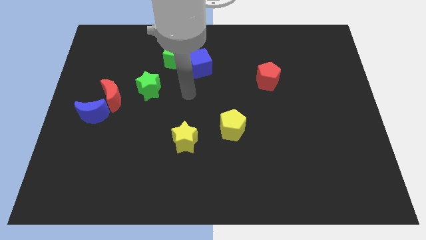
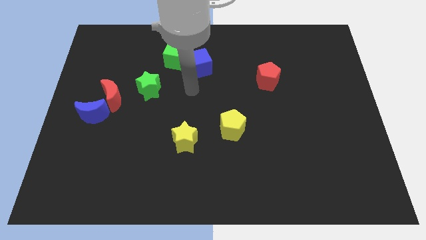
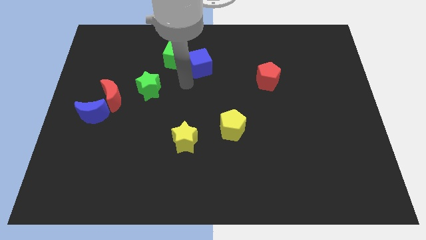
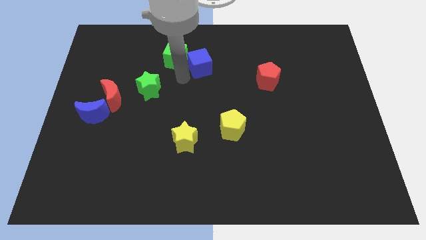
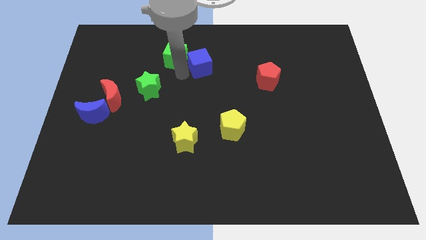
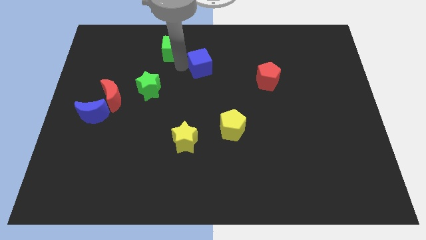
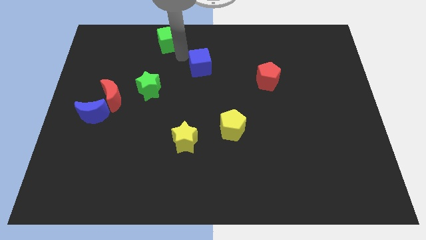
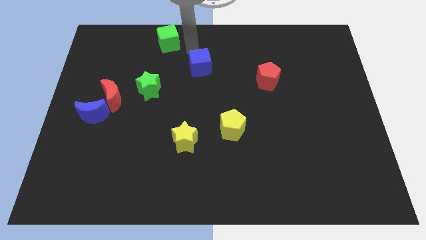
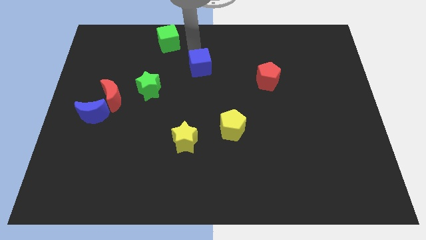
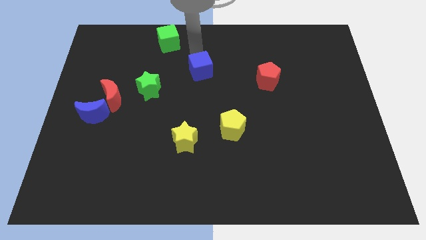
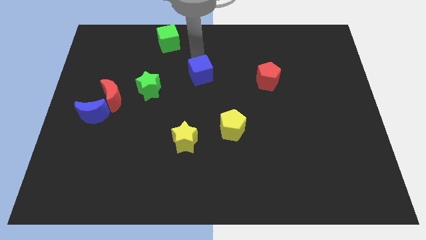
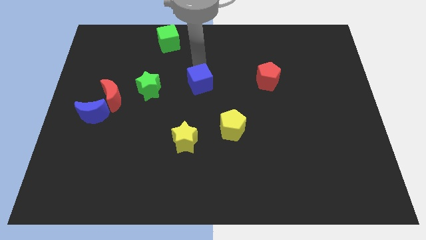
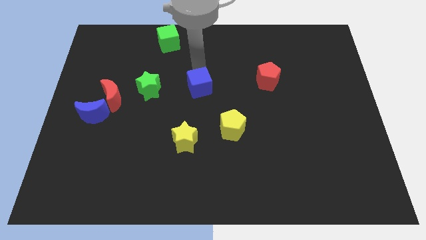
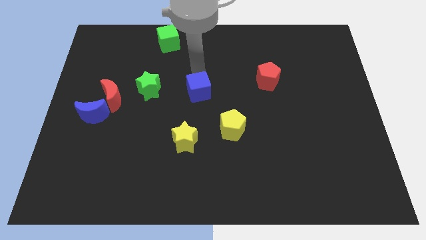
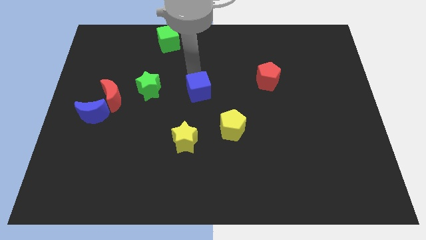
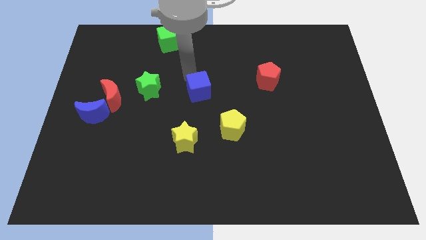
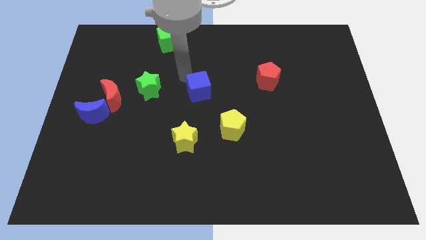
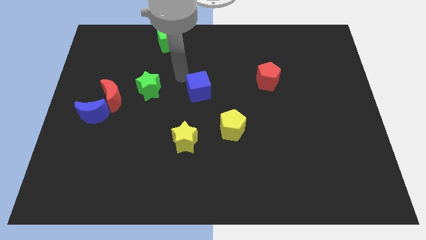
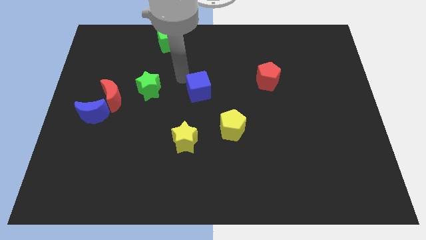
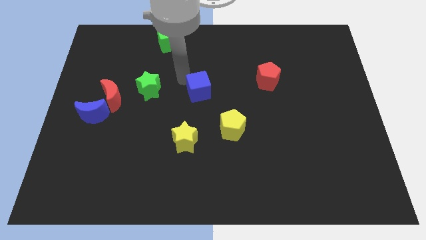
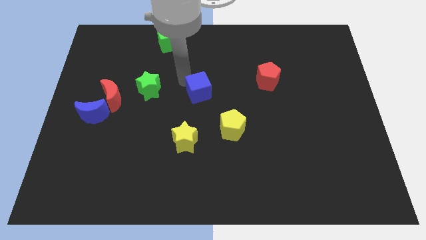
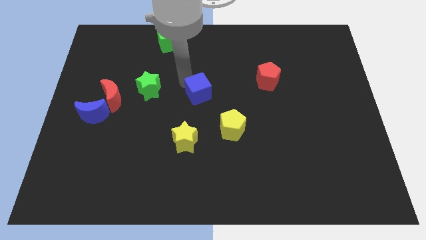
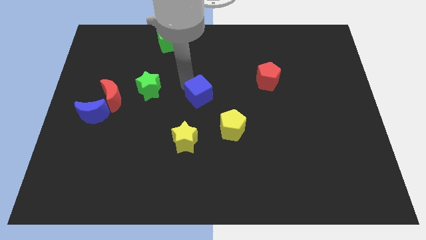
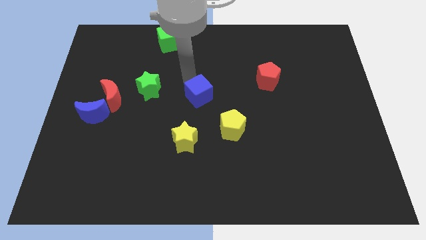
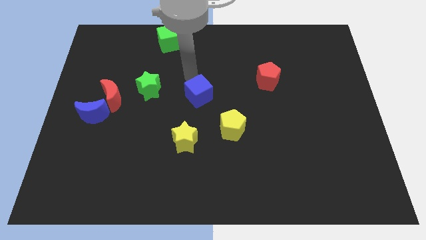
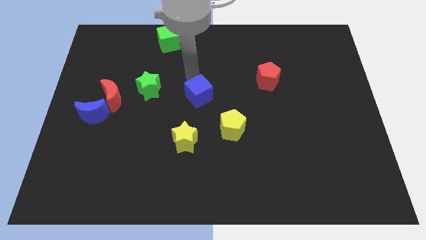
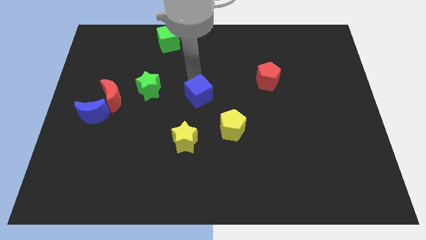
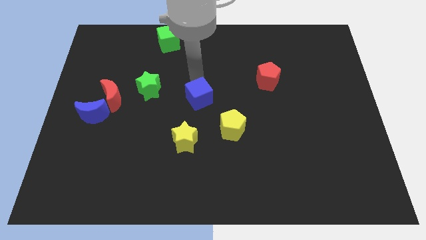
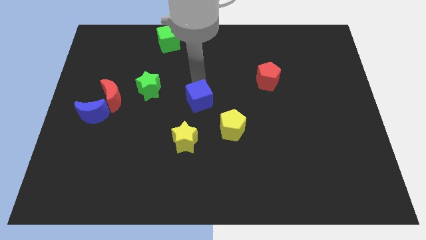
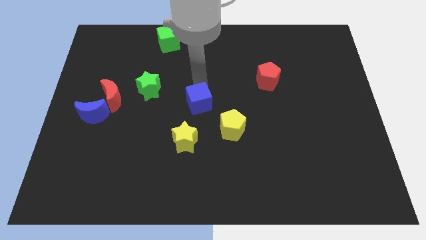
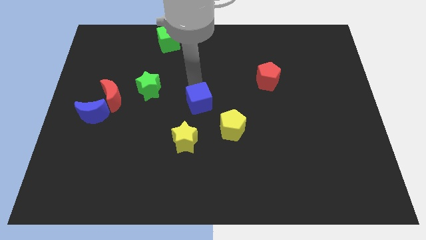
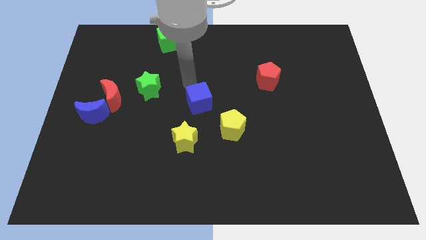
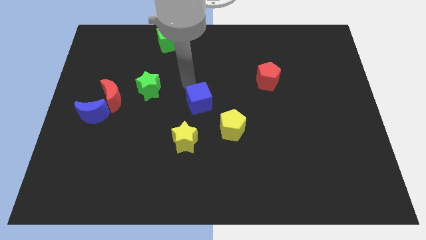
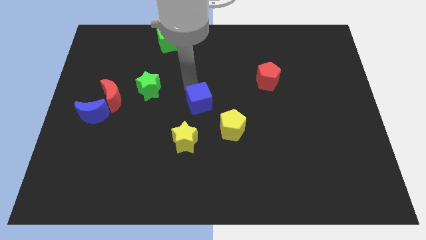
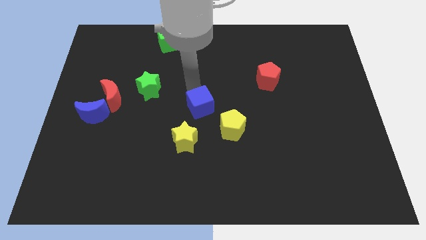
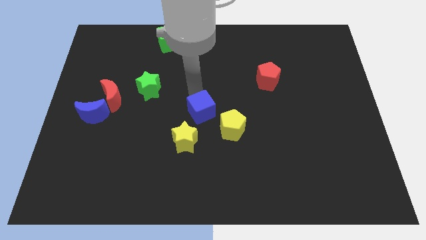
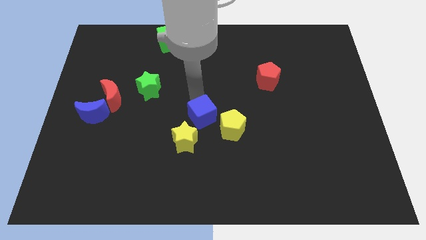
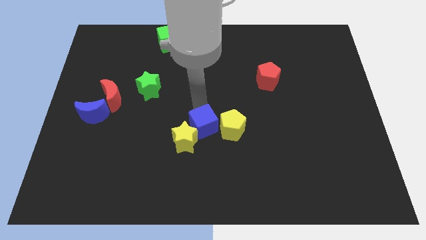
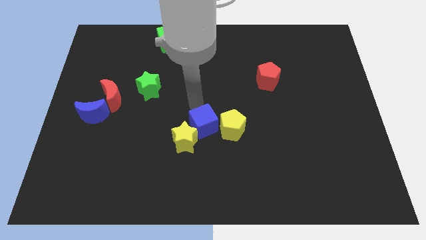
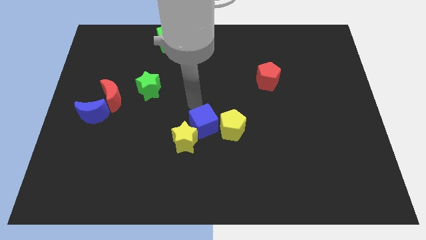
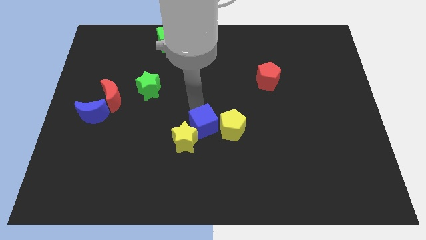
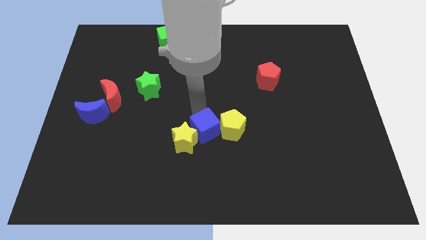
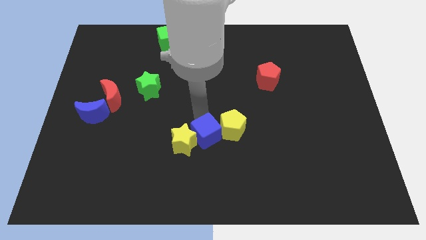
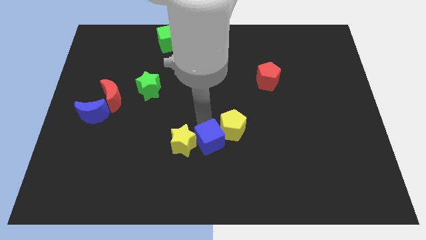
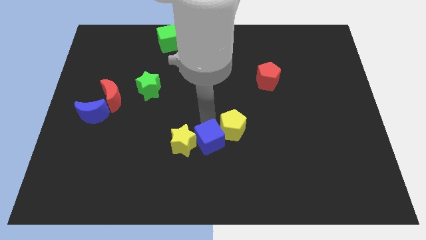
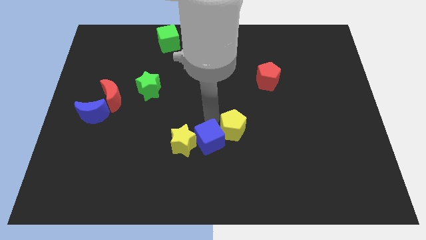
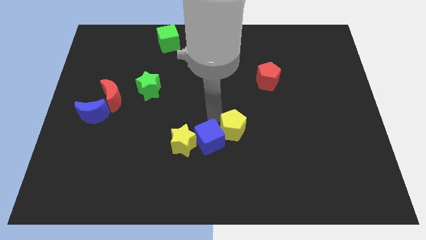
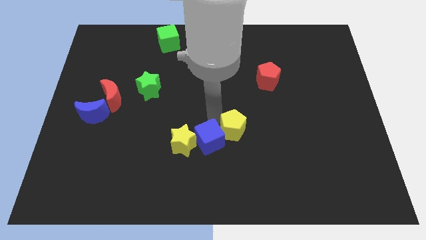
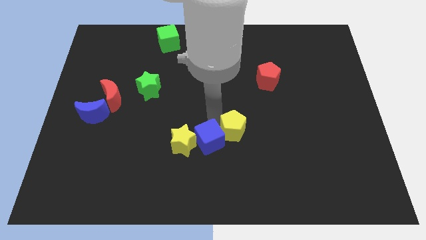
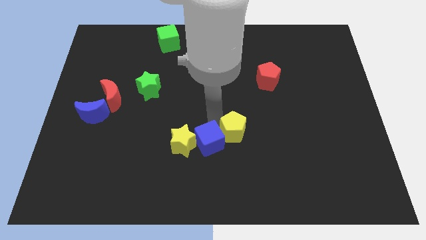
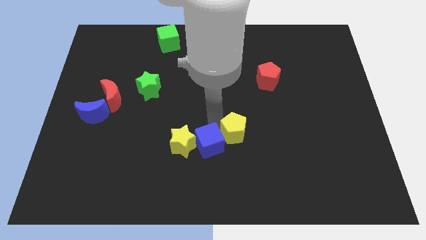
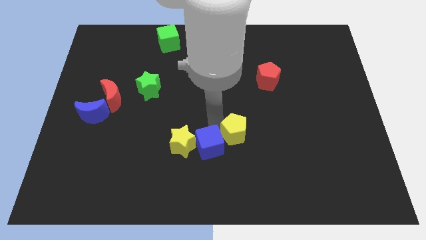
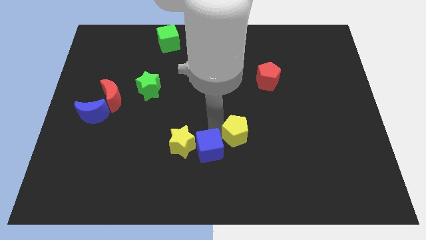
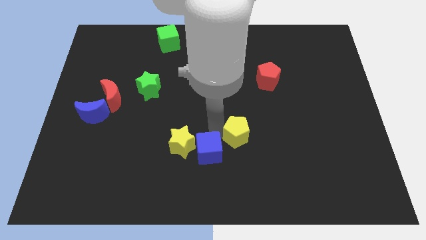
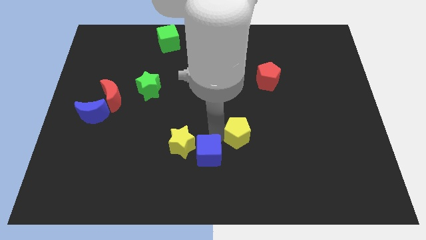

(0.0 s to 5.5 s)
slide the blue cube to the bottom side
